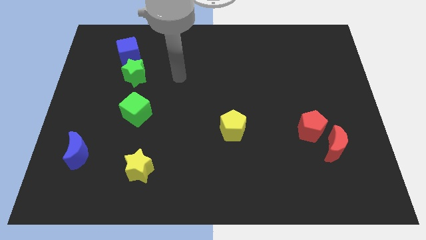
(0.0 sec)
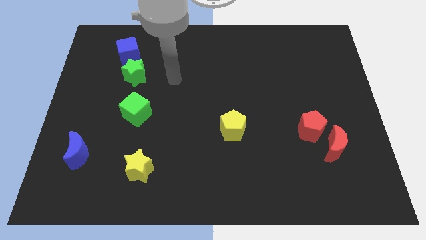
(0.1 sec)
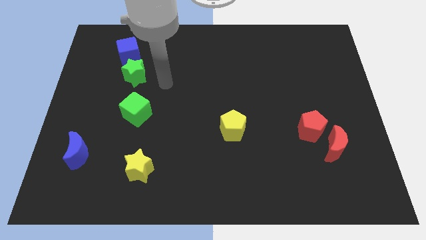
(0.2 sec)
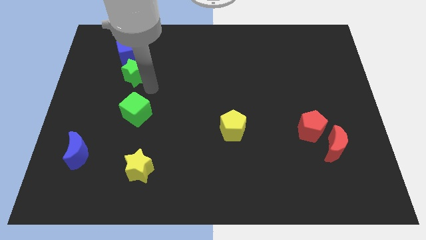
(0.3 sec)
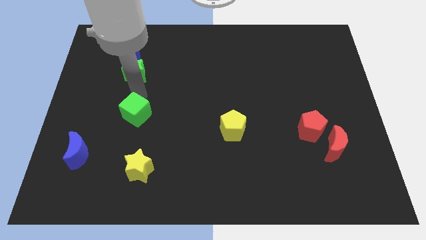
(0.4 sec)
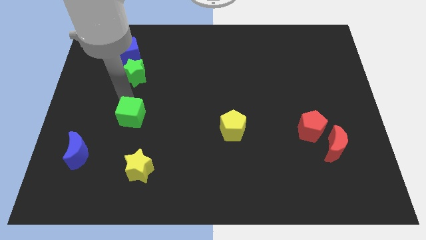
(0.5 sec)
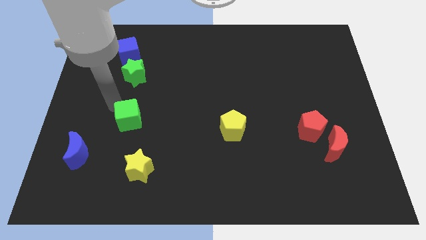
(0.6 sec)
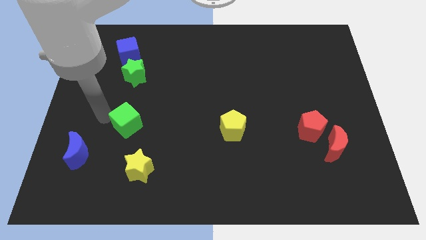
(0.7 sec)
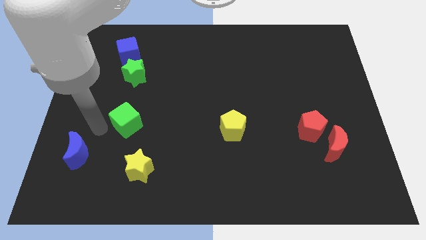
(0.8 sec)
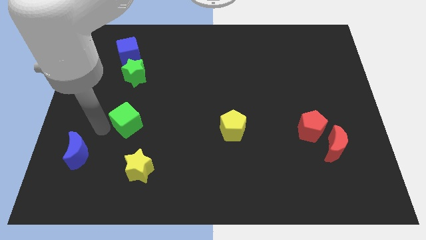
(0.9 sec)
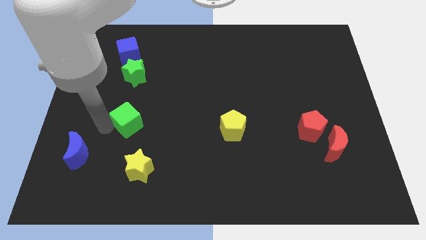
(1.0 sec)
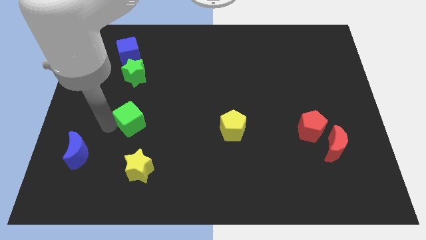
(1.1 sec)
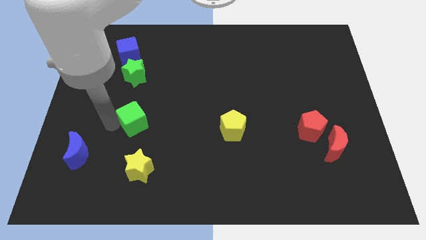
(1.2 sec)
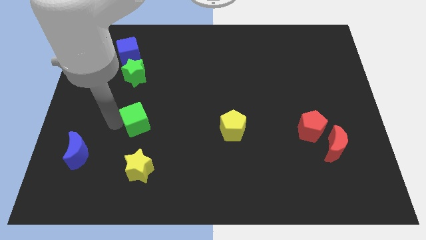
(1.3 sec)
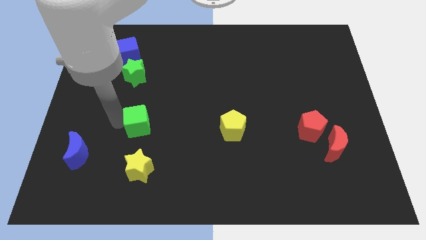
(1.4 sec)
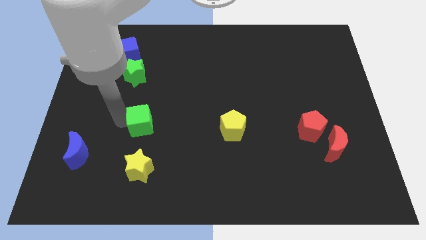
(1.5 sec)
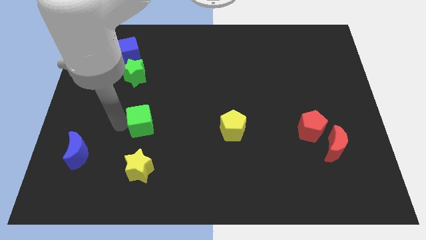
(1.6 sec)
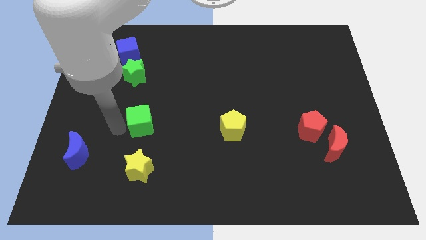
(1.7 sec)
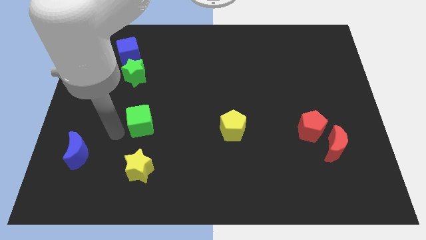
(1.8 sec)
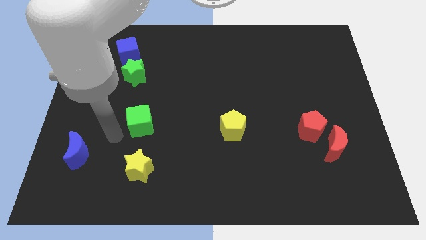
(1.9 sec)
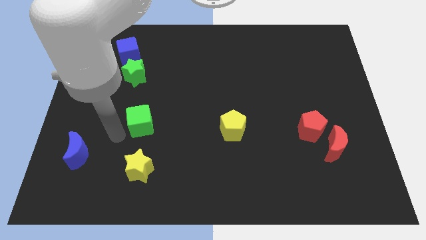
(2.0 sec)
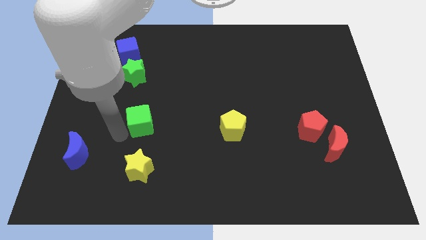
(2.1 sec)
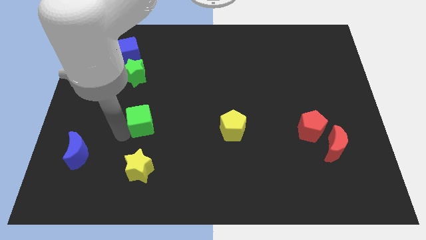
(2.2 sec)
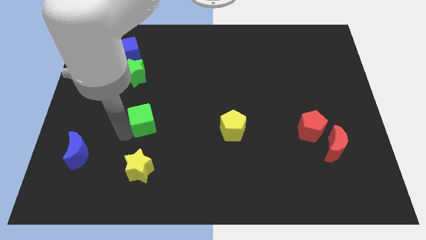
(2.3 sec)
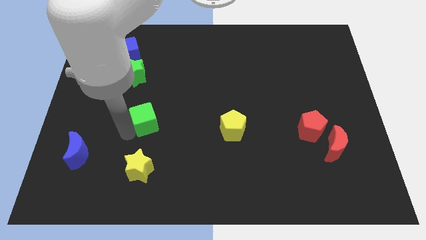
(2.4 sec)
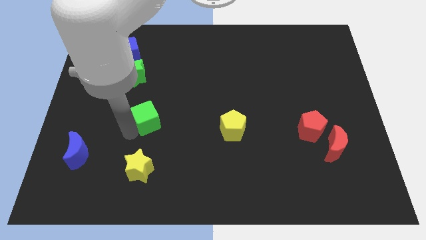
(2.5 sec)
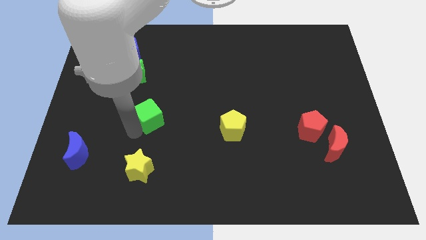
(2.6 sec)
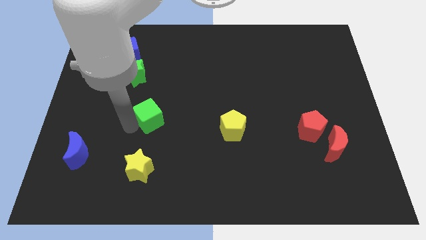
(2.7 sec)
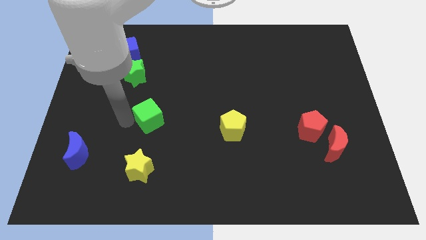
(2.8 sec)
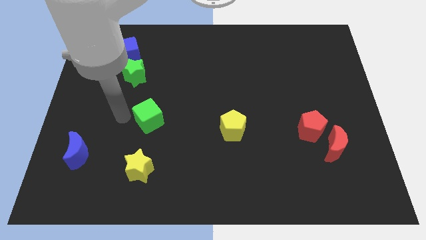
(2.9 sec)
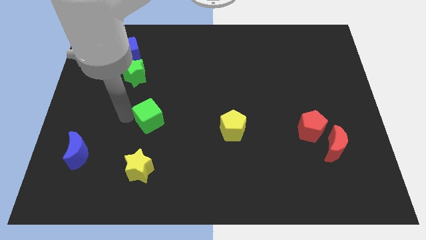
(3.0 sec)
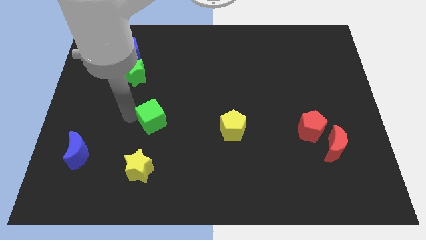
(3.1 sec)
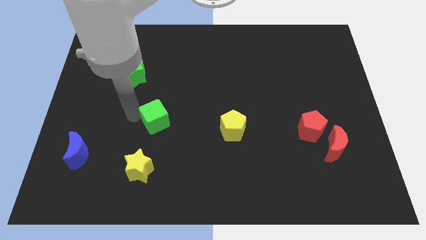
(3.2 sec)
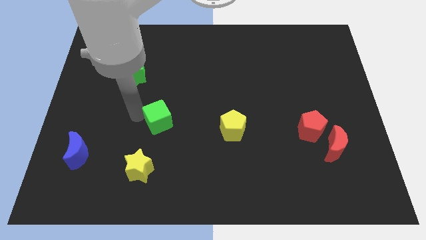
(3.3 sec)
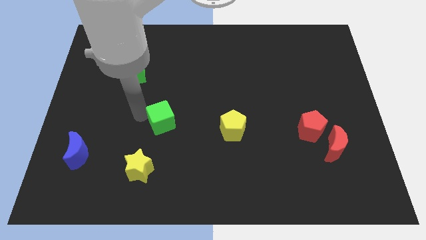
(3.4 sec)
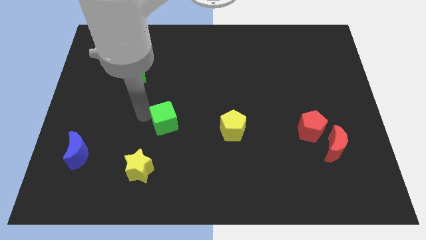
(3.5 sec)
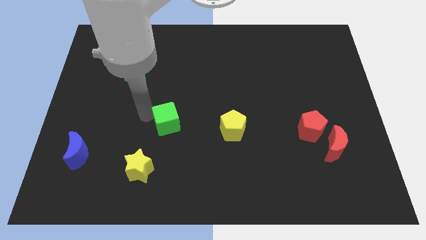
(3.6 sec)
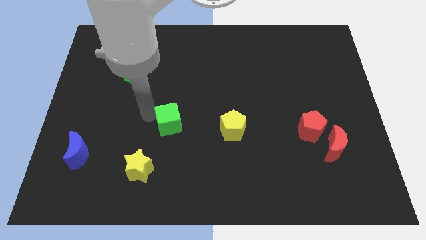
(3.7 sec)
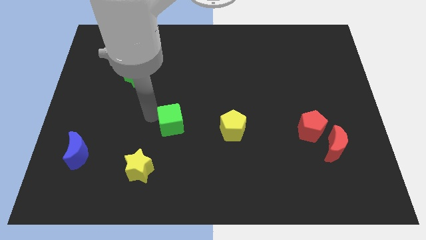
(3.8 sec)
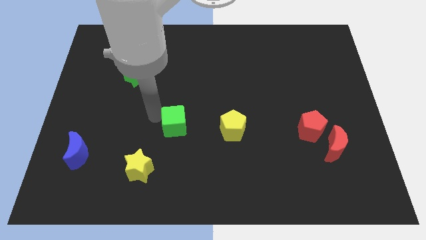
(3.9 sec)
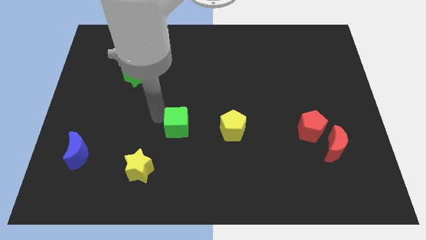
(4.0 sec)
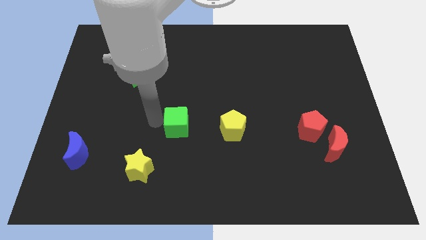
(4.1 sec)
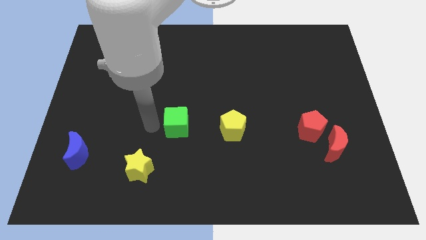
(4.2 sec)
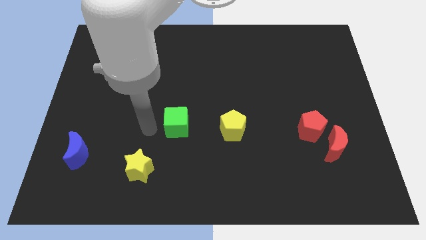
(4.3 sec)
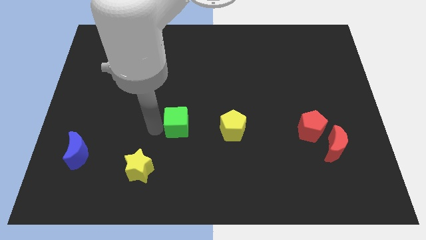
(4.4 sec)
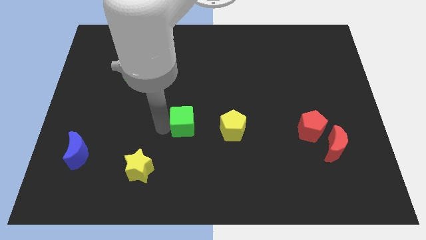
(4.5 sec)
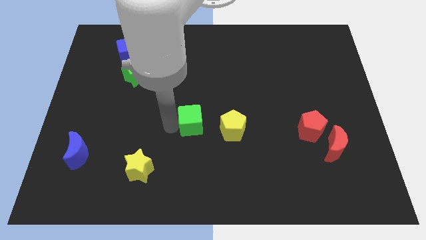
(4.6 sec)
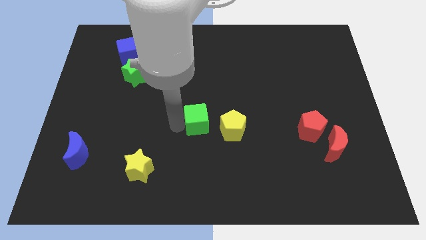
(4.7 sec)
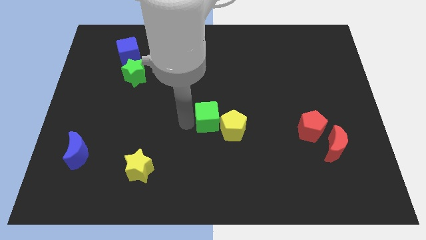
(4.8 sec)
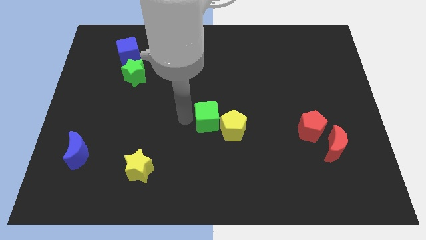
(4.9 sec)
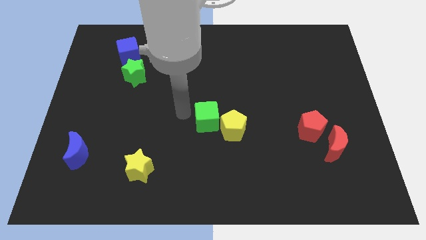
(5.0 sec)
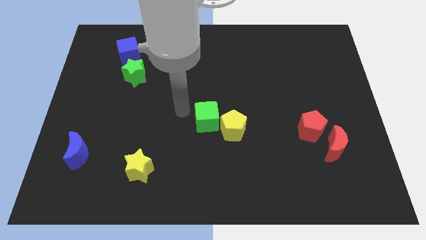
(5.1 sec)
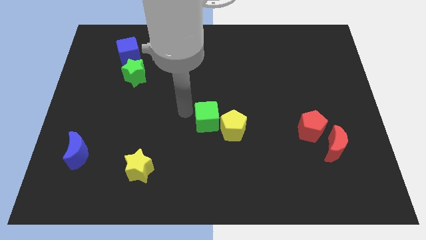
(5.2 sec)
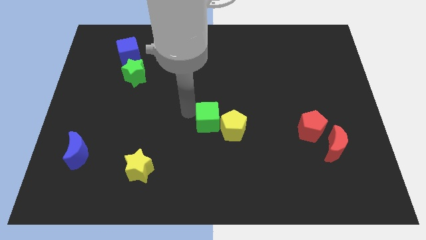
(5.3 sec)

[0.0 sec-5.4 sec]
put the green cube next to the yellow pentagon

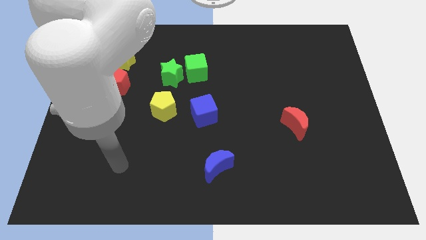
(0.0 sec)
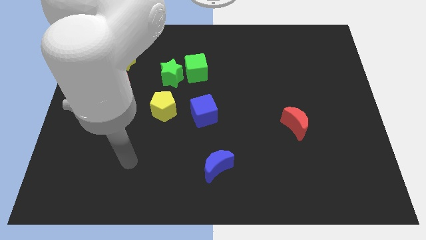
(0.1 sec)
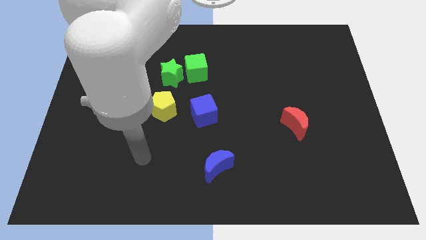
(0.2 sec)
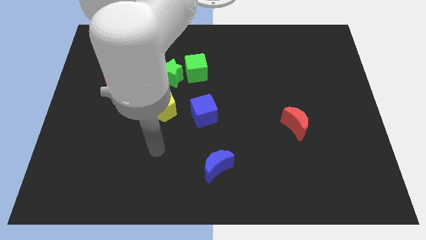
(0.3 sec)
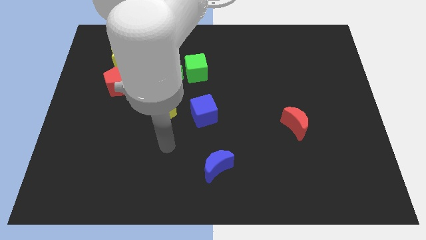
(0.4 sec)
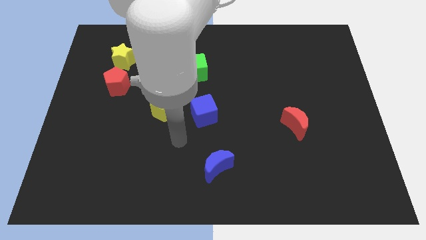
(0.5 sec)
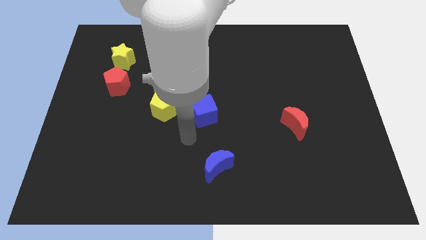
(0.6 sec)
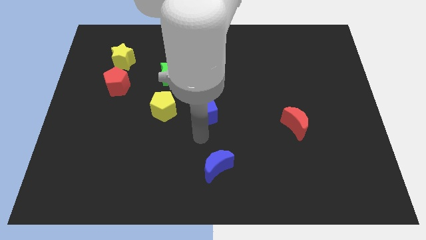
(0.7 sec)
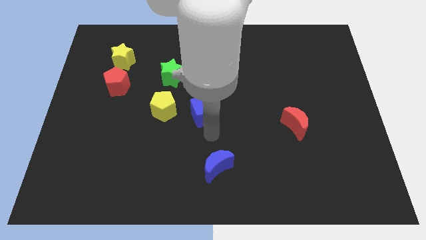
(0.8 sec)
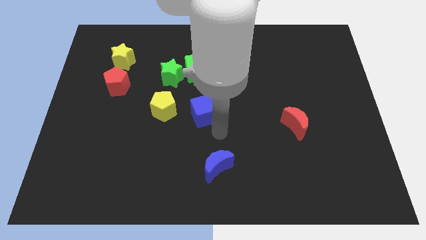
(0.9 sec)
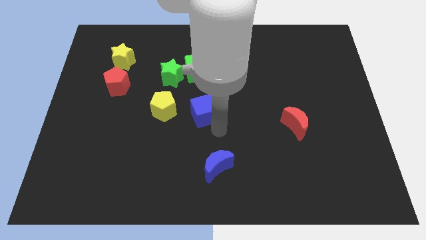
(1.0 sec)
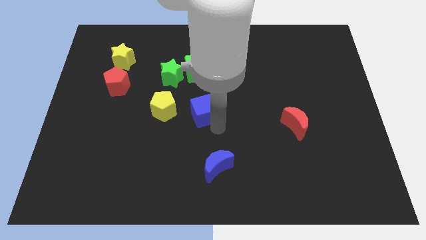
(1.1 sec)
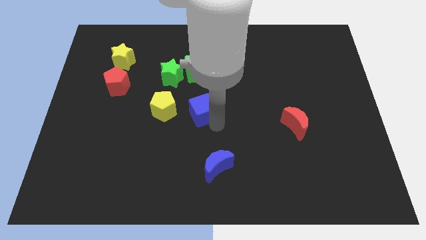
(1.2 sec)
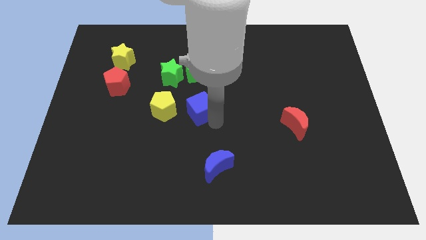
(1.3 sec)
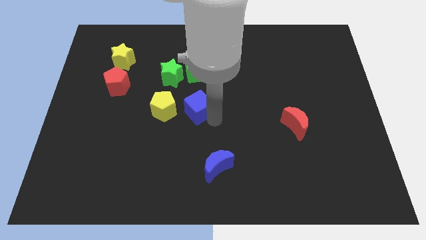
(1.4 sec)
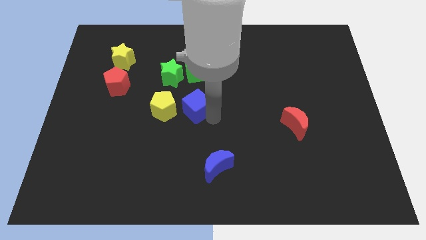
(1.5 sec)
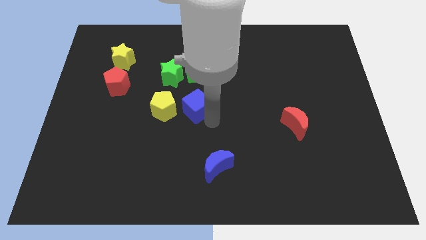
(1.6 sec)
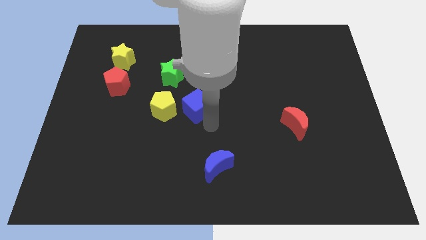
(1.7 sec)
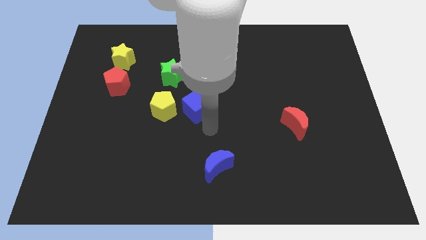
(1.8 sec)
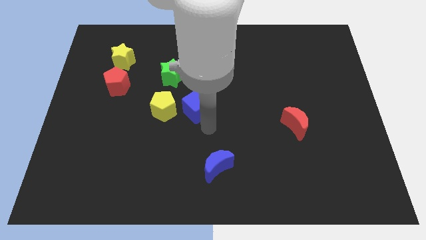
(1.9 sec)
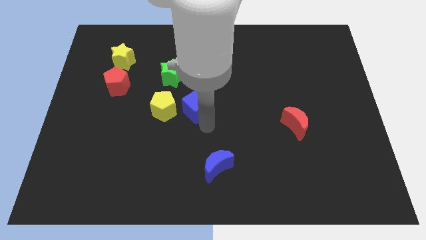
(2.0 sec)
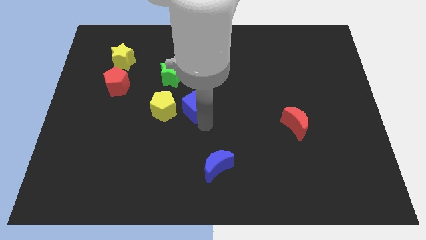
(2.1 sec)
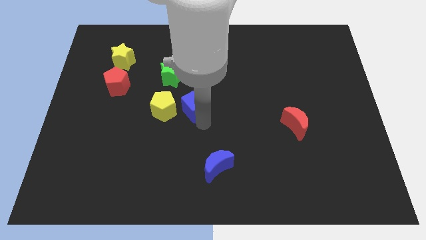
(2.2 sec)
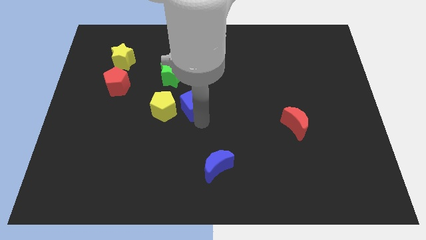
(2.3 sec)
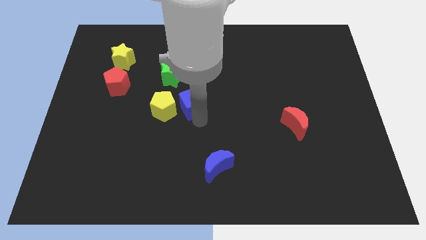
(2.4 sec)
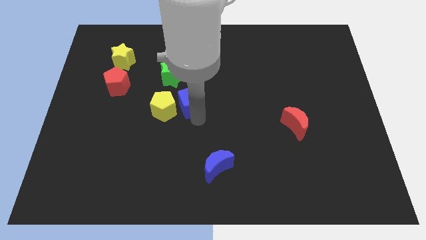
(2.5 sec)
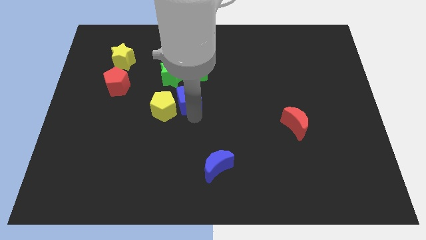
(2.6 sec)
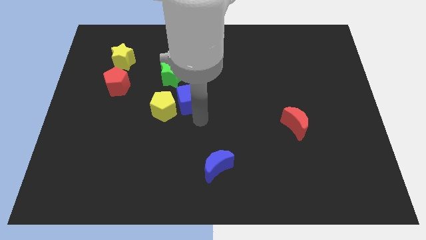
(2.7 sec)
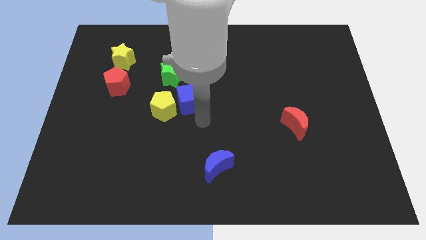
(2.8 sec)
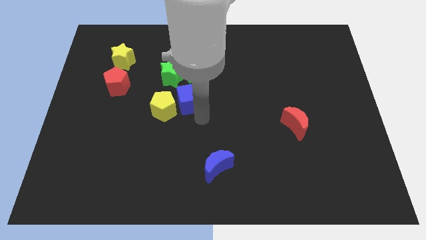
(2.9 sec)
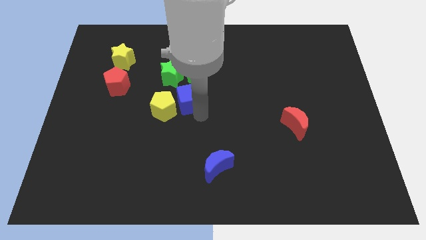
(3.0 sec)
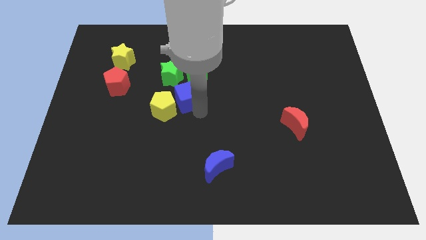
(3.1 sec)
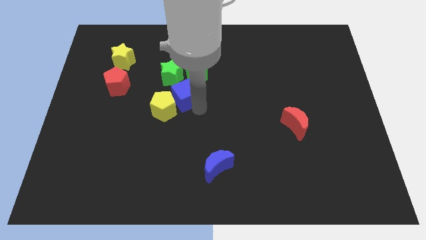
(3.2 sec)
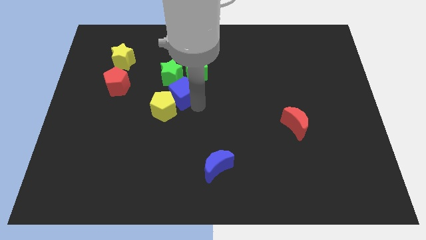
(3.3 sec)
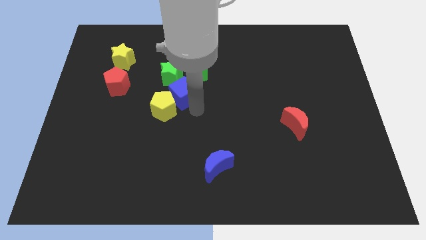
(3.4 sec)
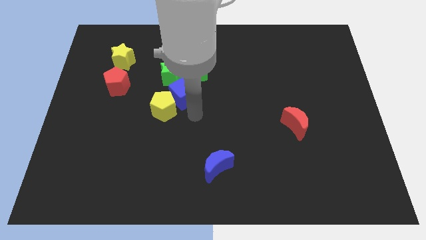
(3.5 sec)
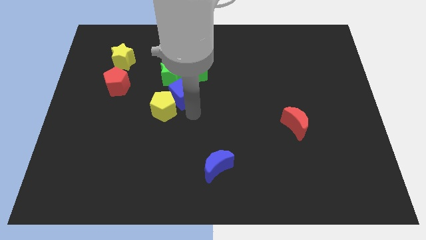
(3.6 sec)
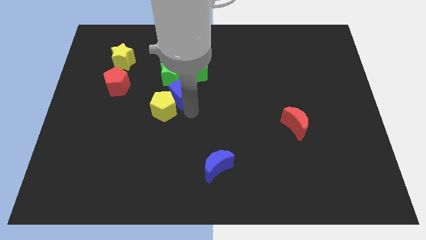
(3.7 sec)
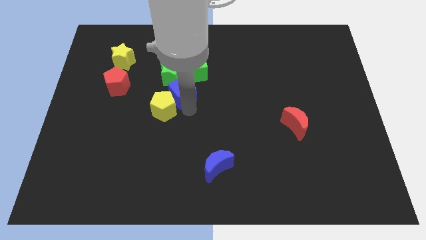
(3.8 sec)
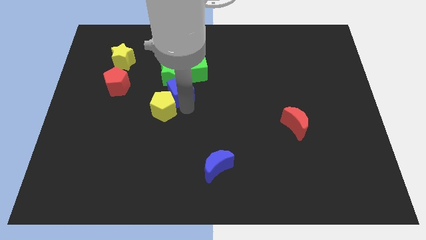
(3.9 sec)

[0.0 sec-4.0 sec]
slide the blue cube next to the green star
